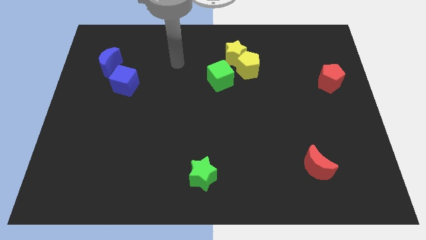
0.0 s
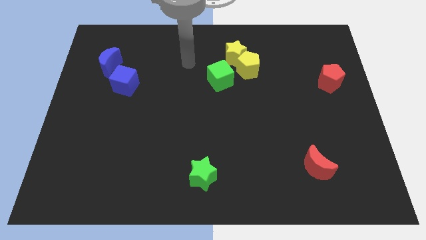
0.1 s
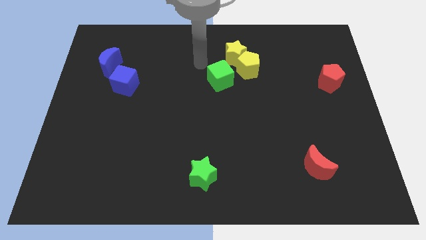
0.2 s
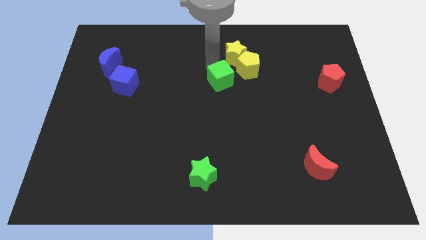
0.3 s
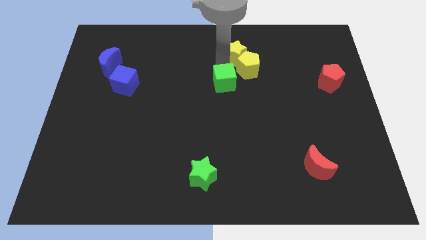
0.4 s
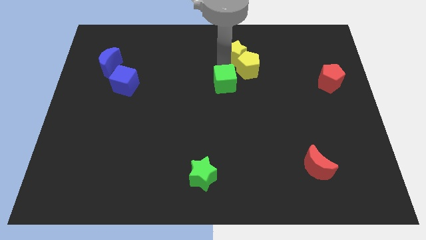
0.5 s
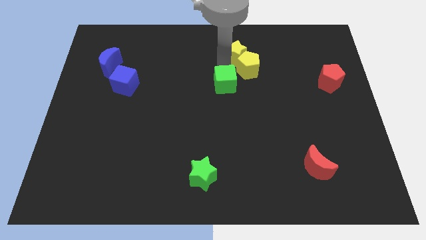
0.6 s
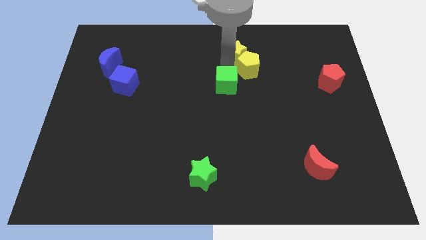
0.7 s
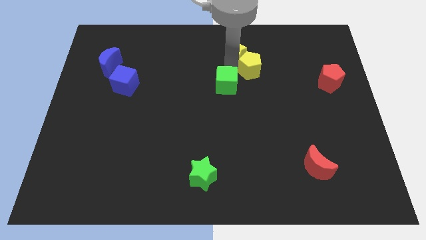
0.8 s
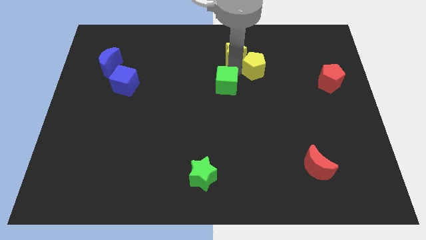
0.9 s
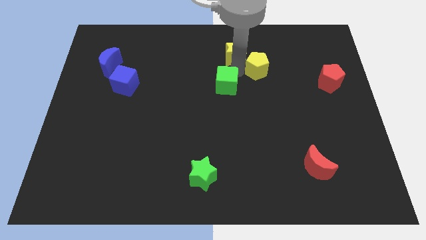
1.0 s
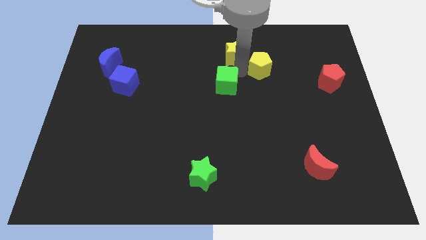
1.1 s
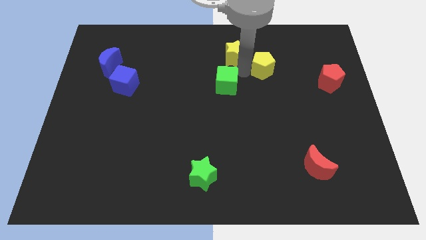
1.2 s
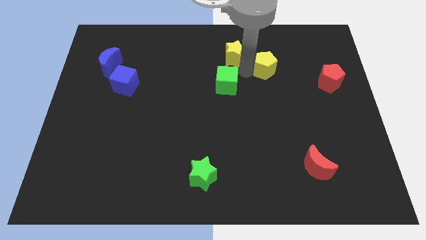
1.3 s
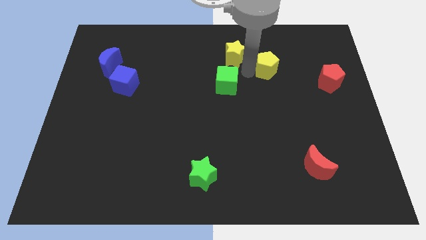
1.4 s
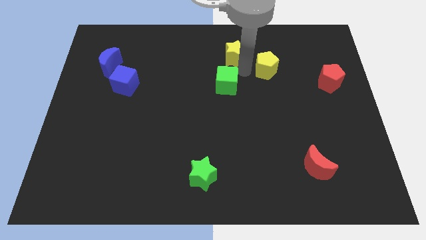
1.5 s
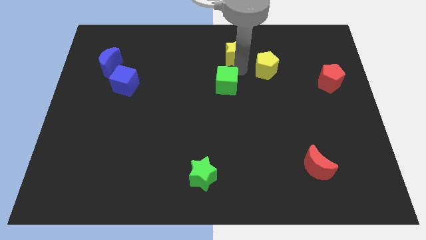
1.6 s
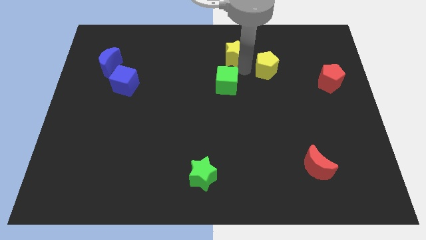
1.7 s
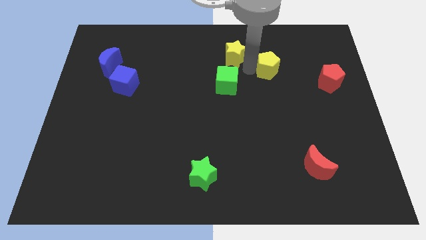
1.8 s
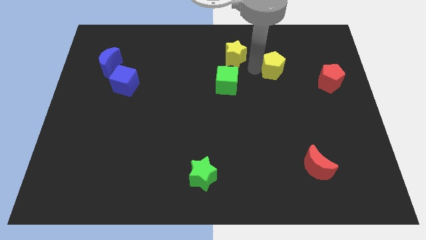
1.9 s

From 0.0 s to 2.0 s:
move the yellow pentagon away from the yellow star and green cube

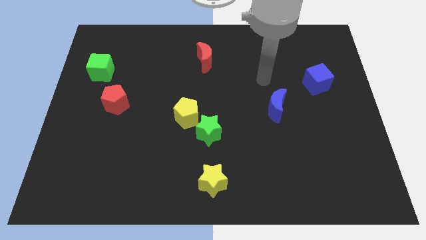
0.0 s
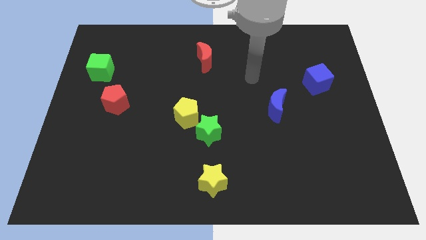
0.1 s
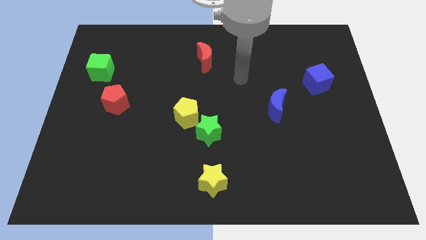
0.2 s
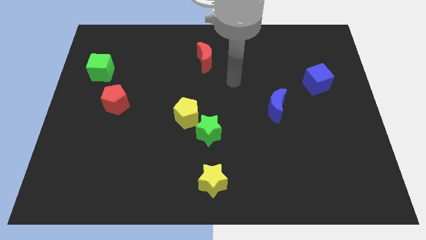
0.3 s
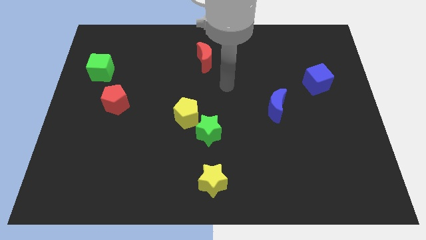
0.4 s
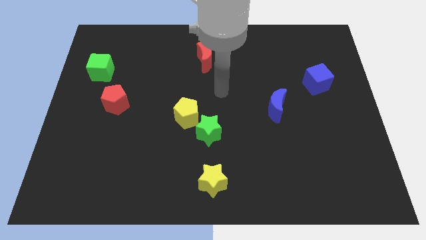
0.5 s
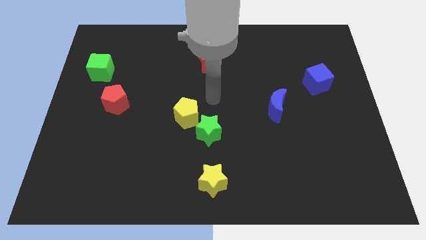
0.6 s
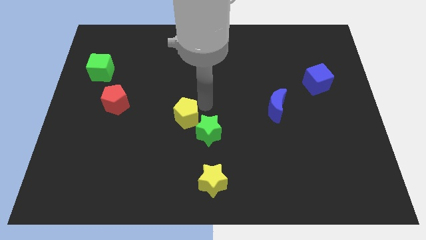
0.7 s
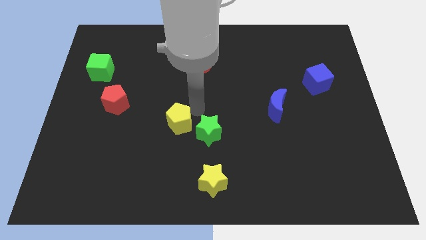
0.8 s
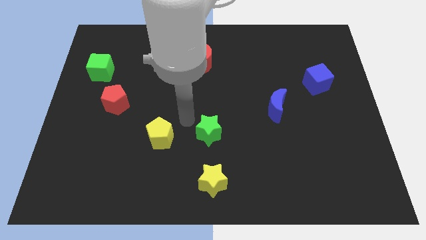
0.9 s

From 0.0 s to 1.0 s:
separate the green star from the yellow pentagon

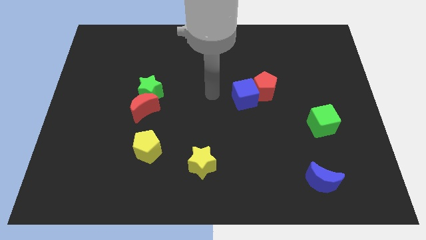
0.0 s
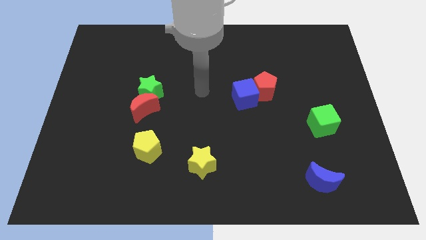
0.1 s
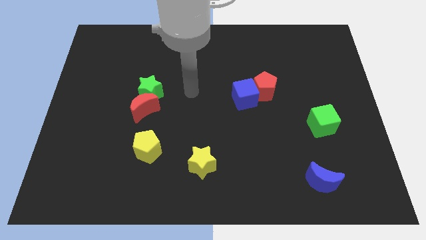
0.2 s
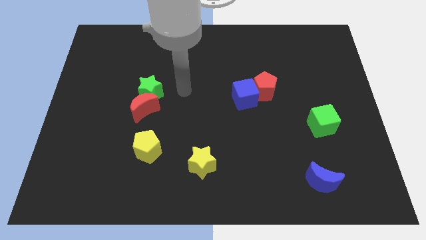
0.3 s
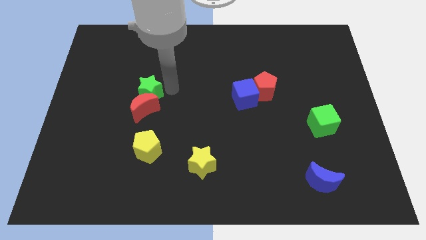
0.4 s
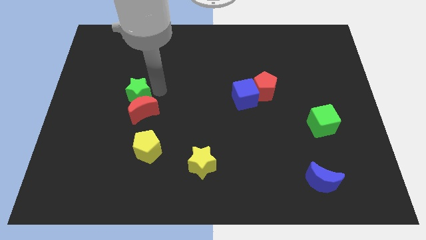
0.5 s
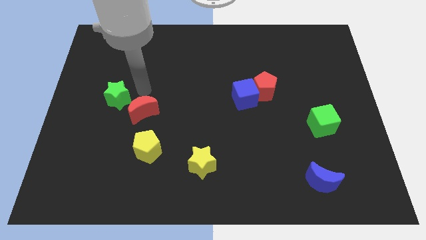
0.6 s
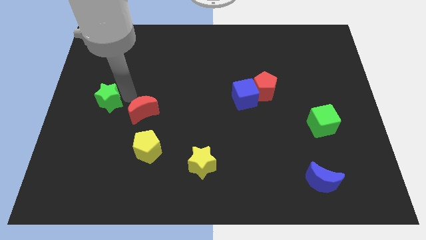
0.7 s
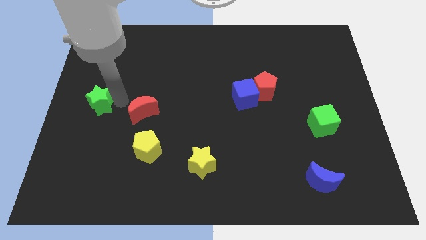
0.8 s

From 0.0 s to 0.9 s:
move the red moon away from the green star

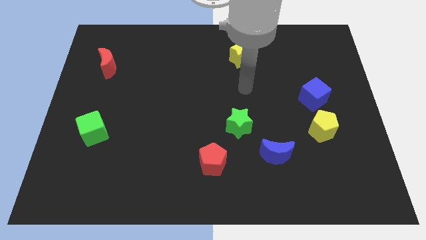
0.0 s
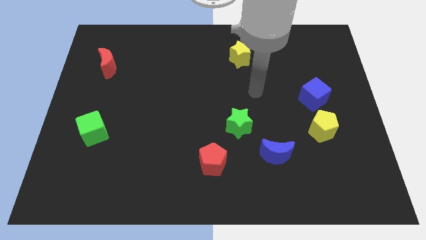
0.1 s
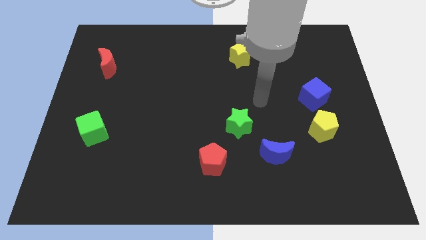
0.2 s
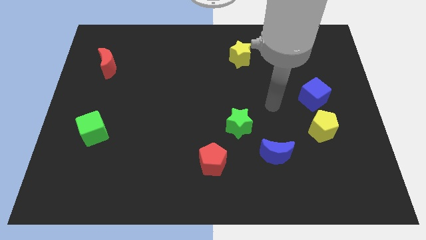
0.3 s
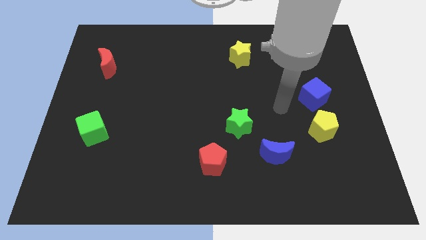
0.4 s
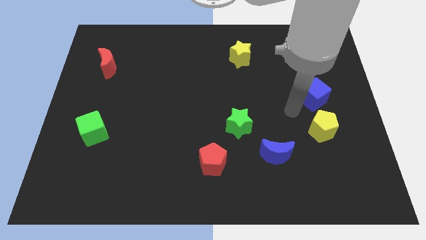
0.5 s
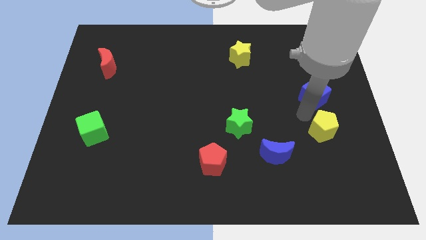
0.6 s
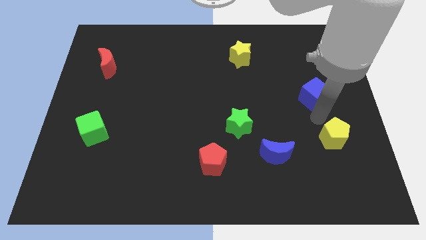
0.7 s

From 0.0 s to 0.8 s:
pull the blue cube apart from the yellow pentagon

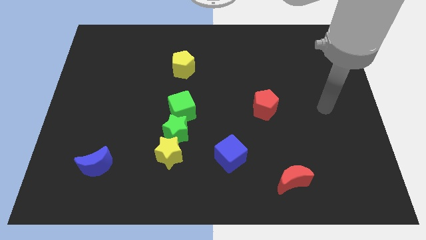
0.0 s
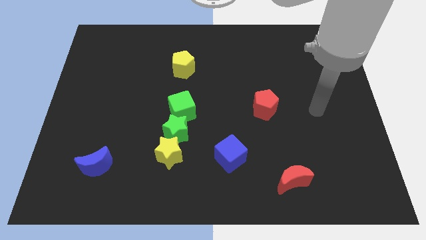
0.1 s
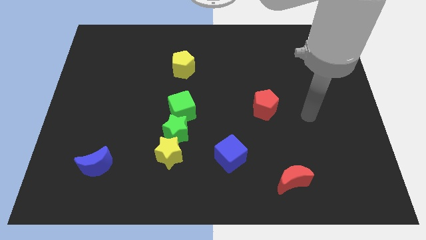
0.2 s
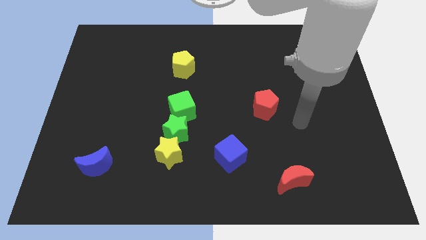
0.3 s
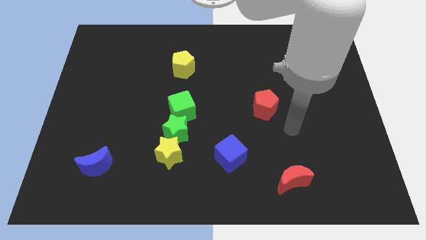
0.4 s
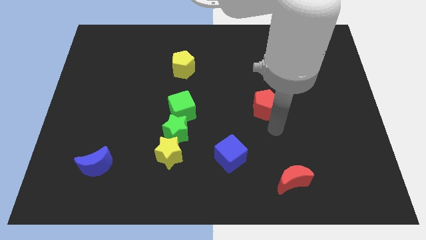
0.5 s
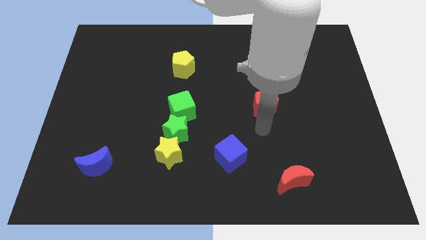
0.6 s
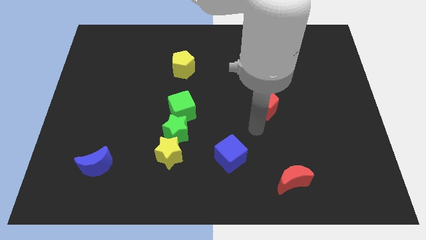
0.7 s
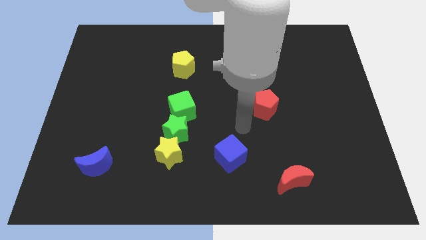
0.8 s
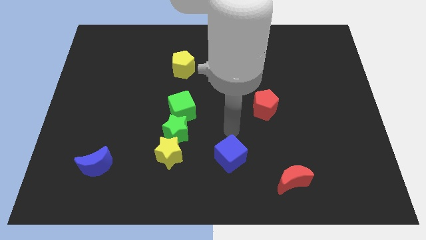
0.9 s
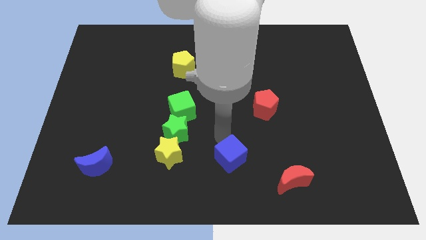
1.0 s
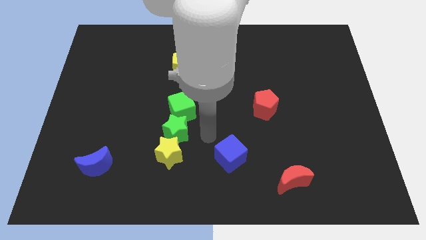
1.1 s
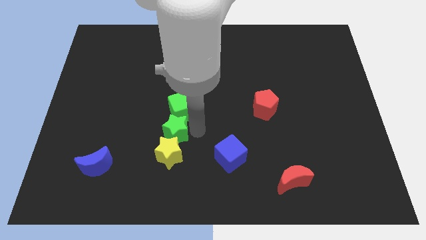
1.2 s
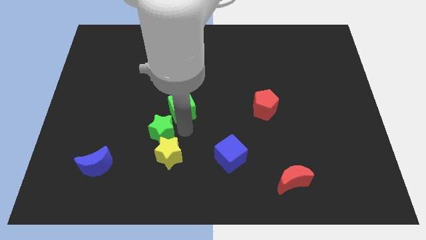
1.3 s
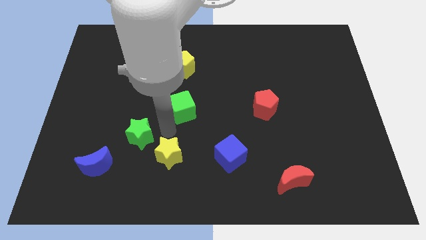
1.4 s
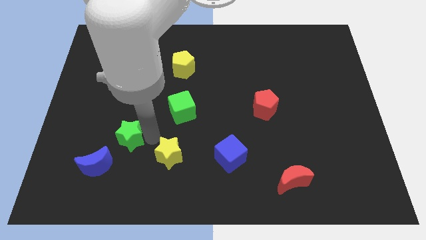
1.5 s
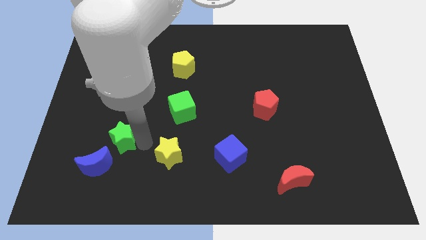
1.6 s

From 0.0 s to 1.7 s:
move the yellow star away from the green star

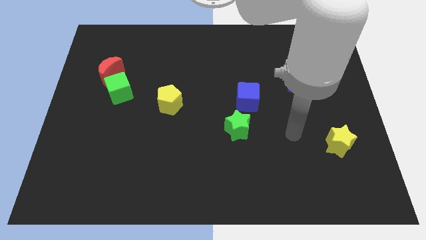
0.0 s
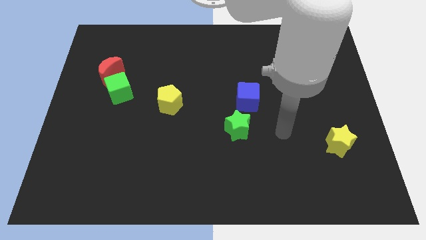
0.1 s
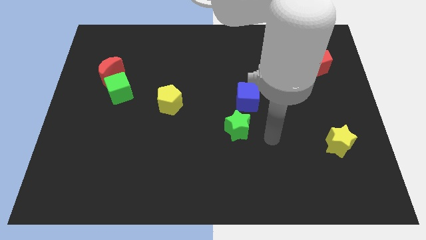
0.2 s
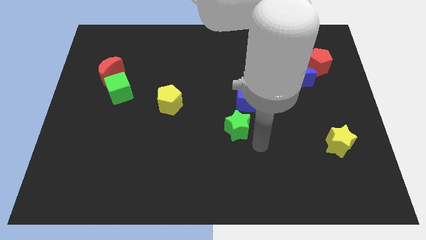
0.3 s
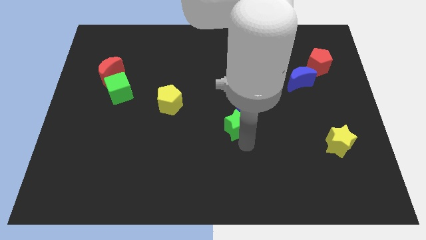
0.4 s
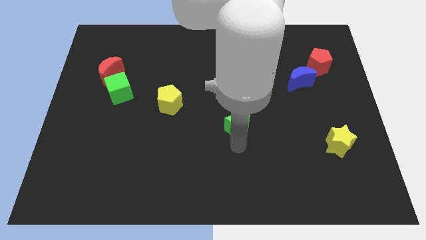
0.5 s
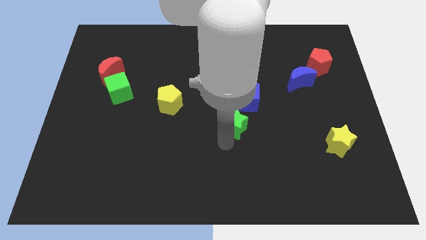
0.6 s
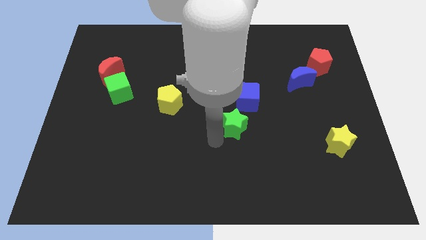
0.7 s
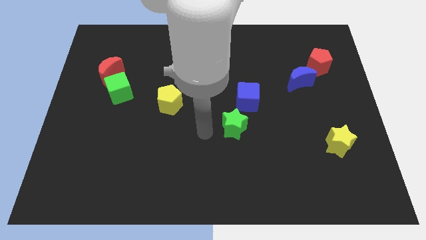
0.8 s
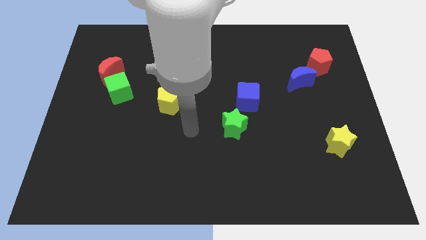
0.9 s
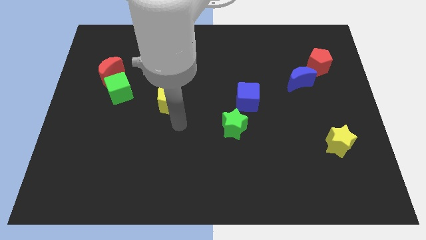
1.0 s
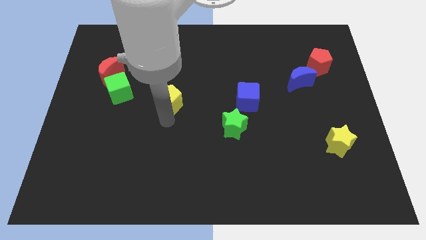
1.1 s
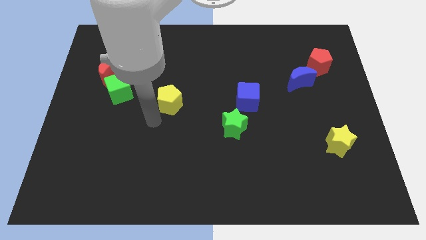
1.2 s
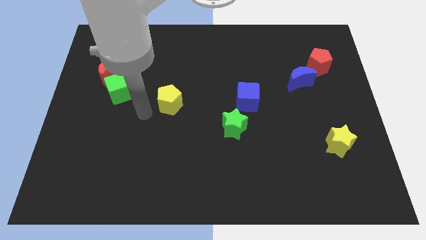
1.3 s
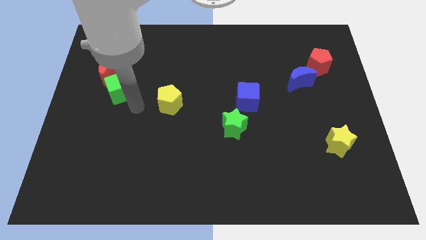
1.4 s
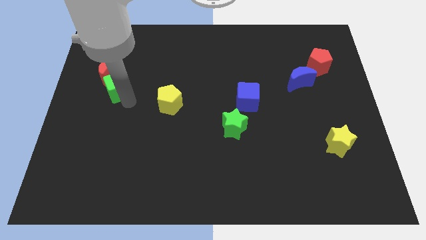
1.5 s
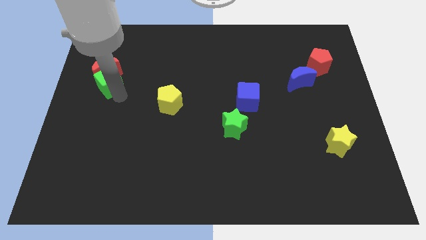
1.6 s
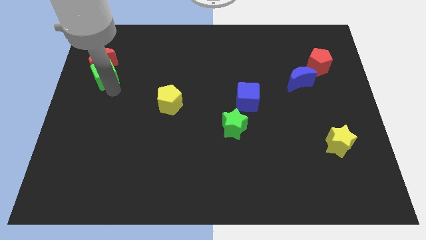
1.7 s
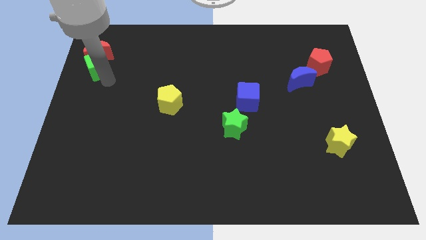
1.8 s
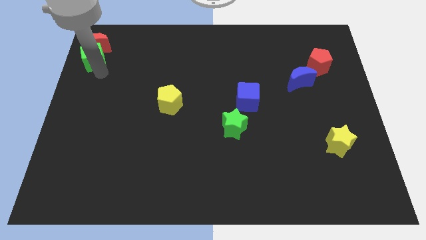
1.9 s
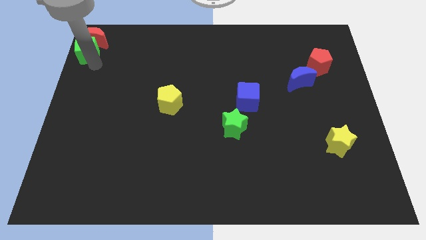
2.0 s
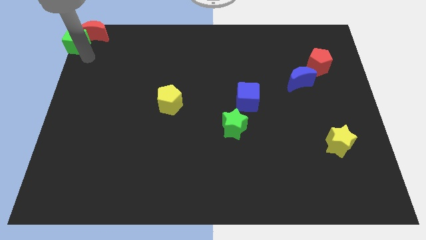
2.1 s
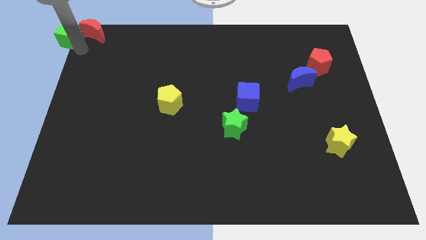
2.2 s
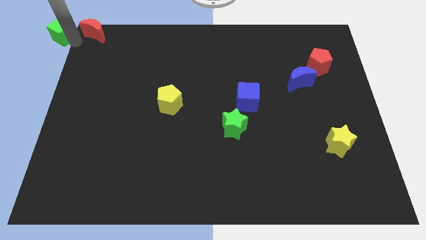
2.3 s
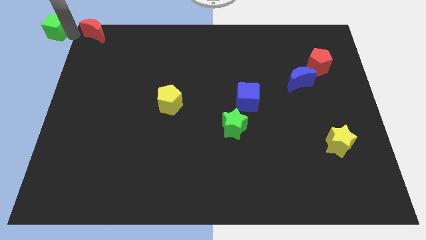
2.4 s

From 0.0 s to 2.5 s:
move the red moon away from the green cube

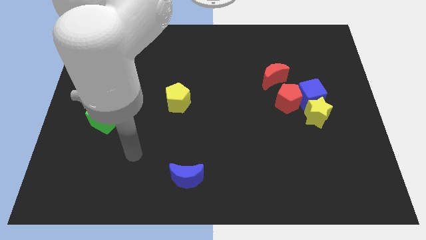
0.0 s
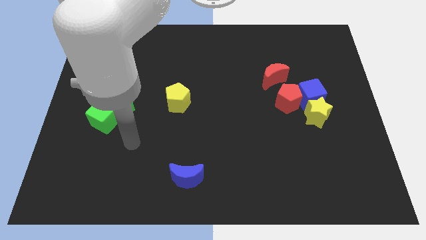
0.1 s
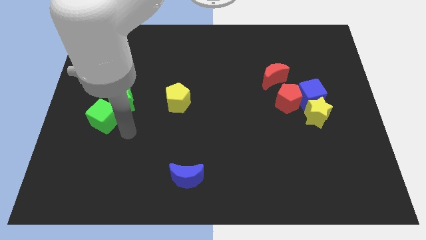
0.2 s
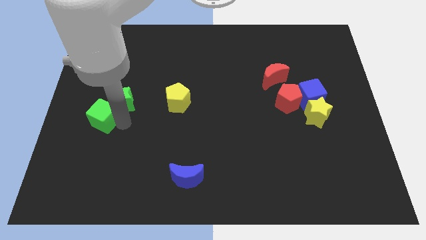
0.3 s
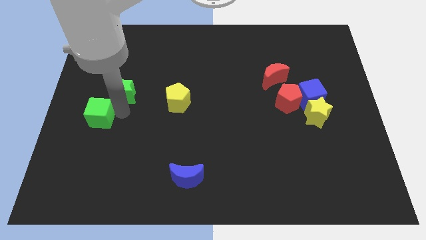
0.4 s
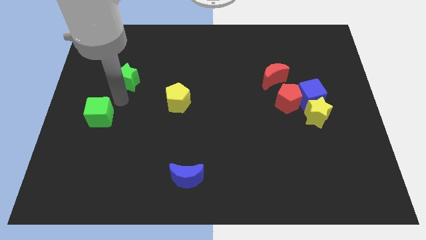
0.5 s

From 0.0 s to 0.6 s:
move the green cube away from the green star
